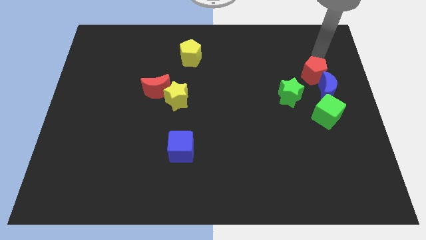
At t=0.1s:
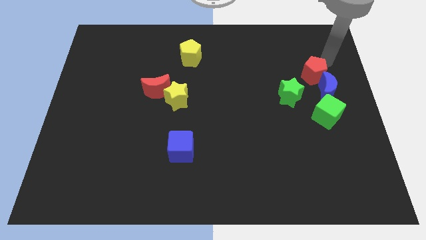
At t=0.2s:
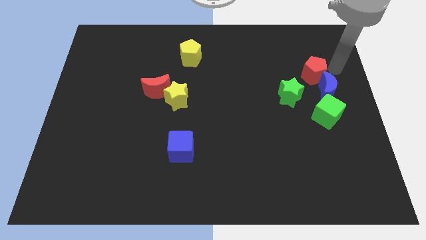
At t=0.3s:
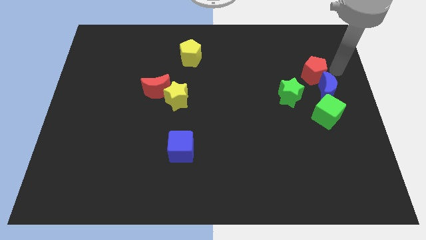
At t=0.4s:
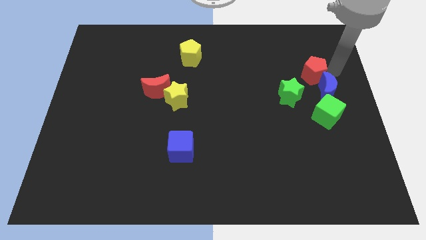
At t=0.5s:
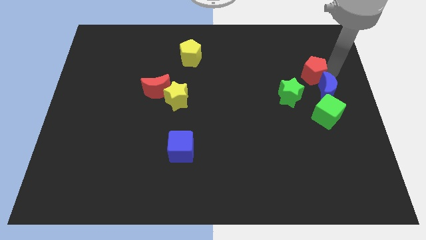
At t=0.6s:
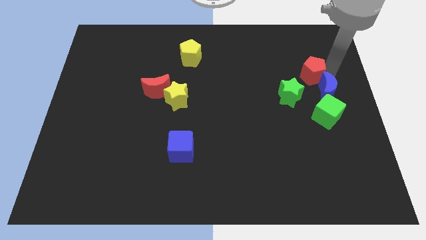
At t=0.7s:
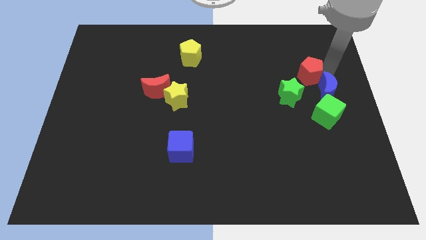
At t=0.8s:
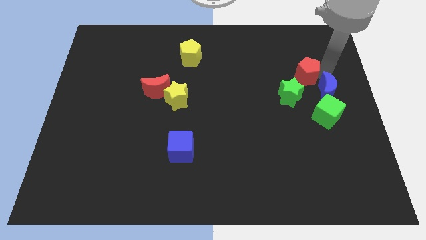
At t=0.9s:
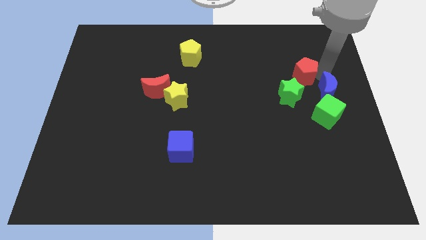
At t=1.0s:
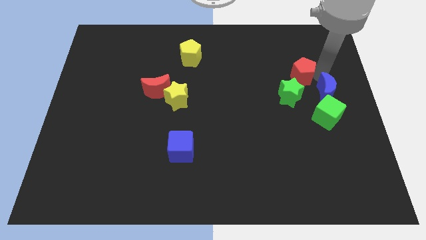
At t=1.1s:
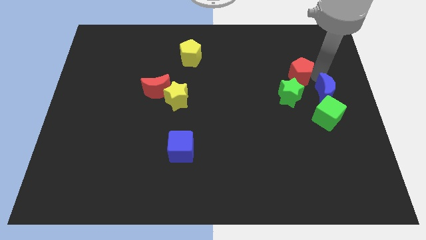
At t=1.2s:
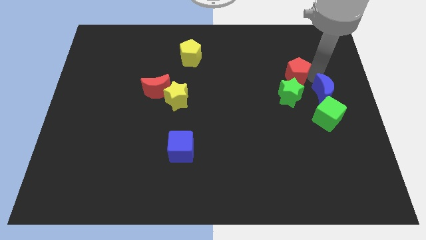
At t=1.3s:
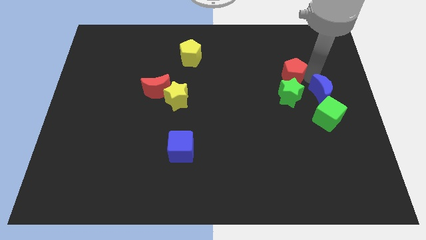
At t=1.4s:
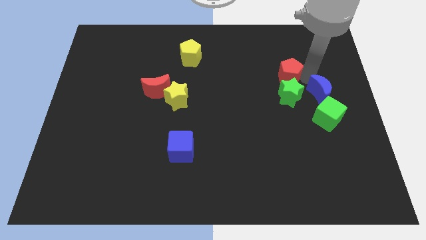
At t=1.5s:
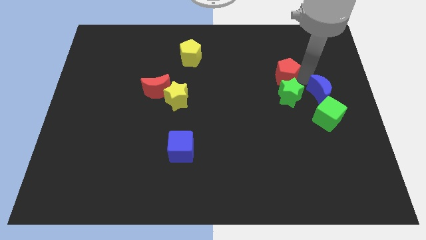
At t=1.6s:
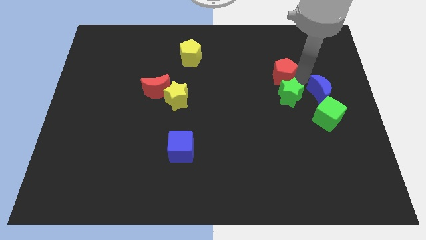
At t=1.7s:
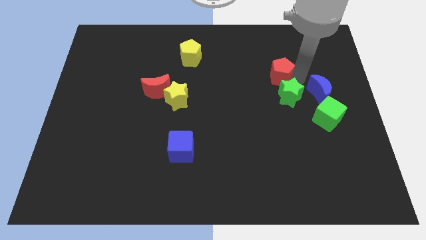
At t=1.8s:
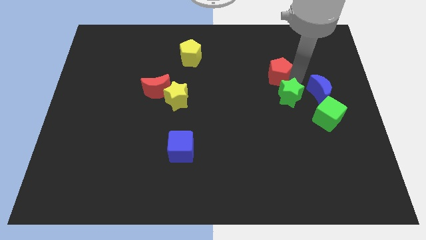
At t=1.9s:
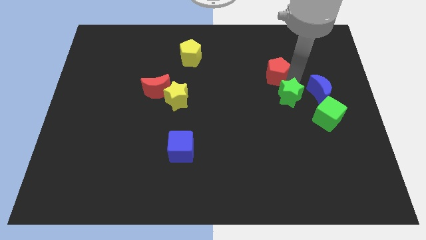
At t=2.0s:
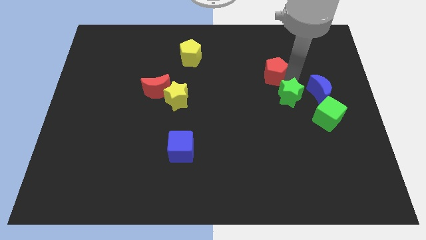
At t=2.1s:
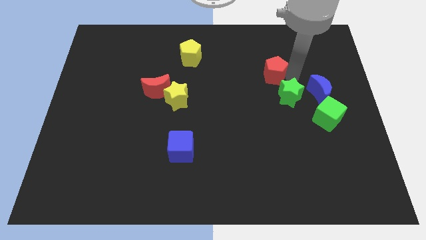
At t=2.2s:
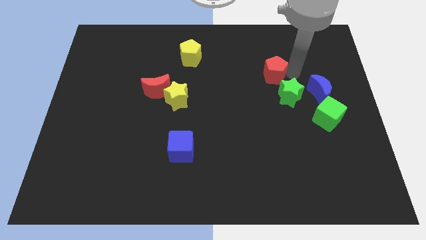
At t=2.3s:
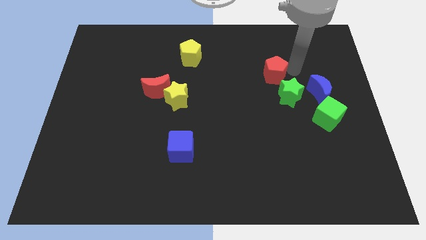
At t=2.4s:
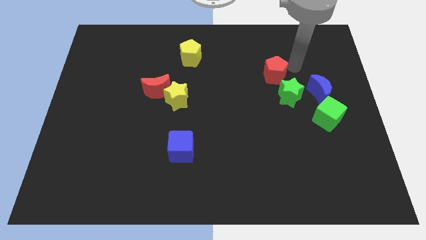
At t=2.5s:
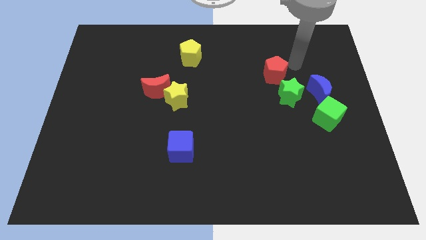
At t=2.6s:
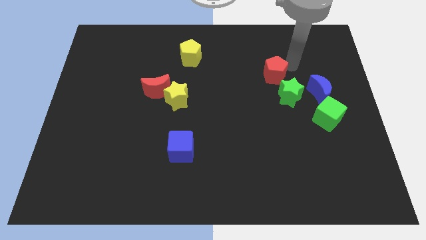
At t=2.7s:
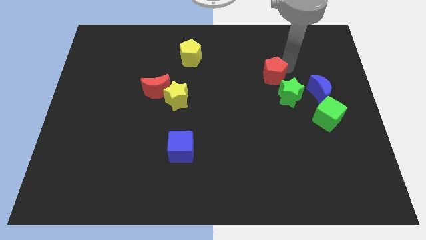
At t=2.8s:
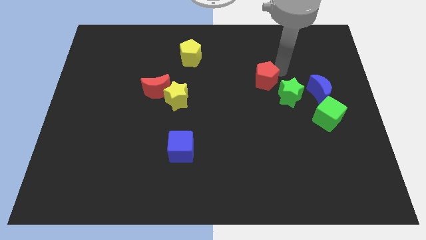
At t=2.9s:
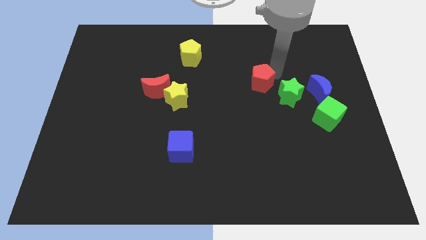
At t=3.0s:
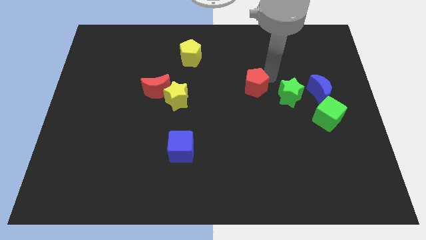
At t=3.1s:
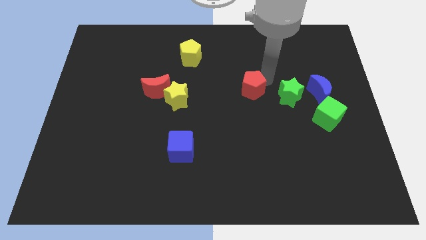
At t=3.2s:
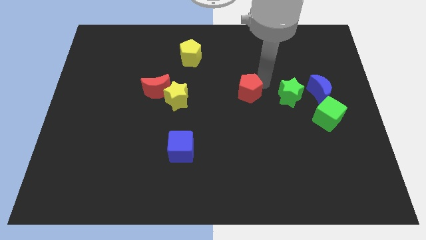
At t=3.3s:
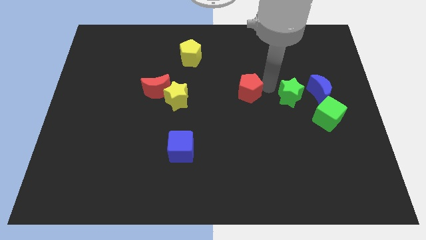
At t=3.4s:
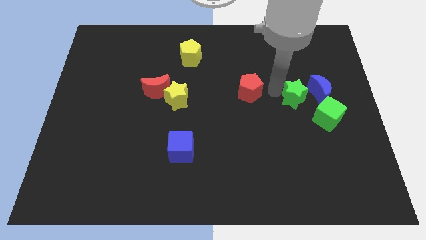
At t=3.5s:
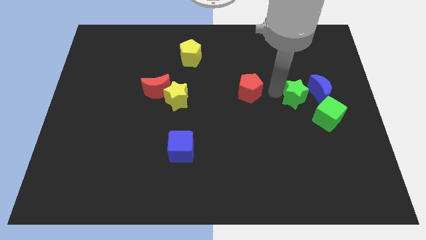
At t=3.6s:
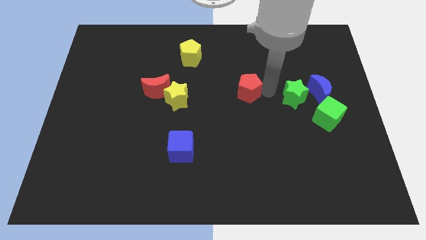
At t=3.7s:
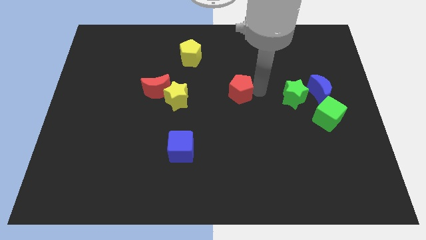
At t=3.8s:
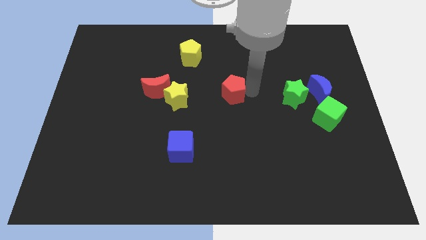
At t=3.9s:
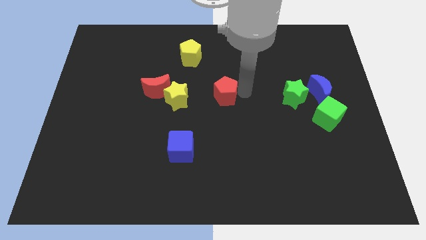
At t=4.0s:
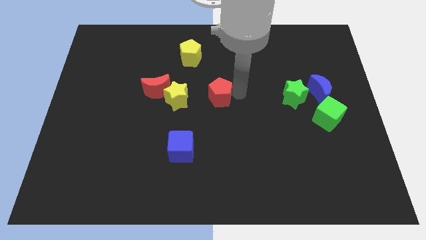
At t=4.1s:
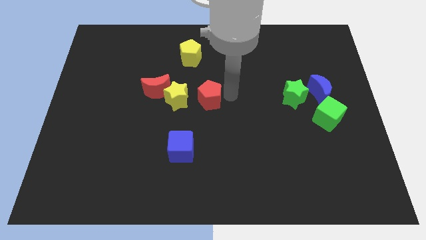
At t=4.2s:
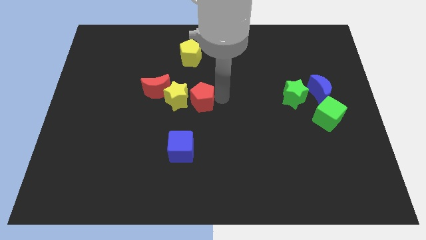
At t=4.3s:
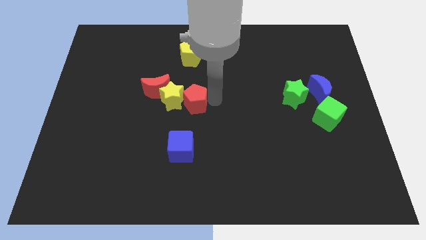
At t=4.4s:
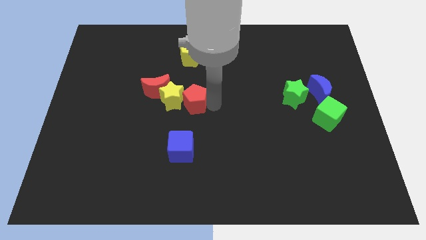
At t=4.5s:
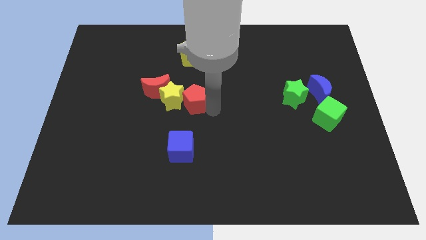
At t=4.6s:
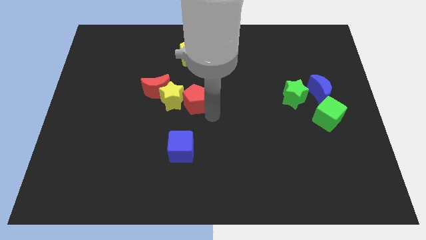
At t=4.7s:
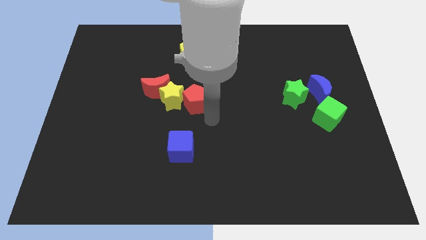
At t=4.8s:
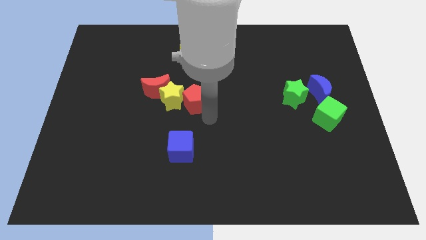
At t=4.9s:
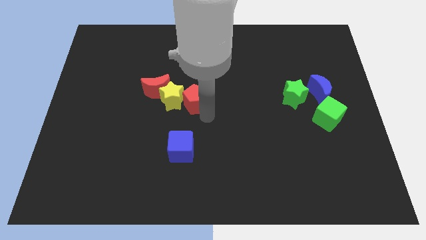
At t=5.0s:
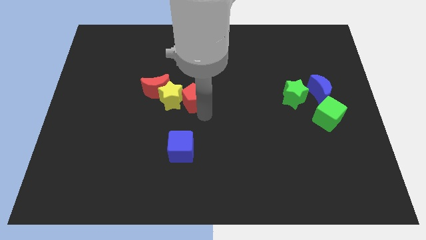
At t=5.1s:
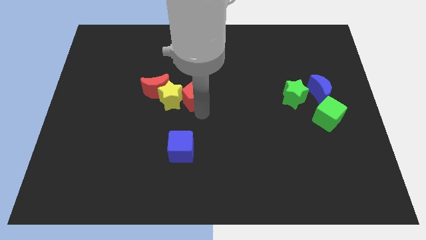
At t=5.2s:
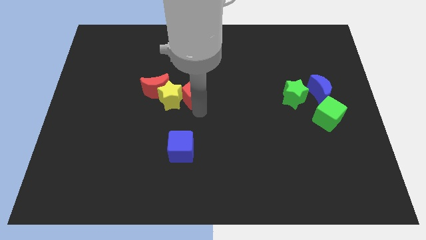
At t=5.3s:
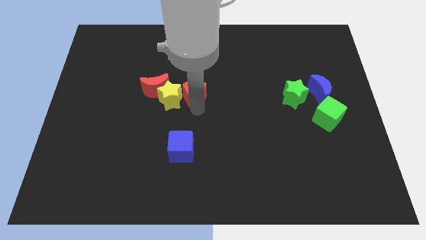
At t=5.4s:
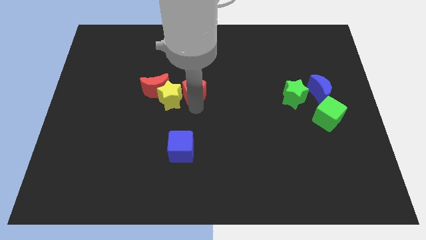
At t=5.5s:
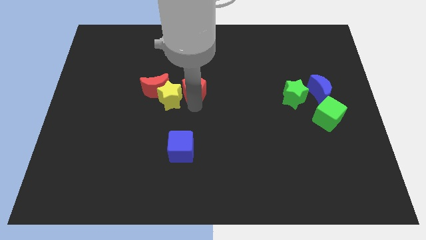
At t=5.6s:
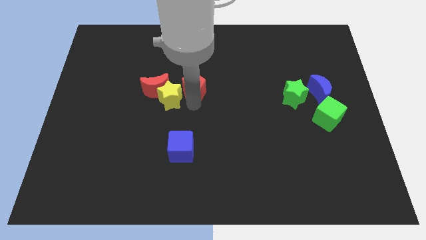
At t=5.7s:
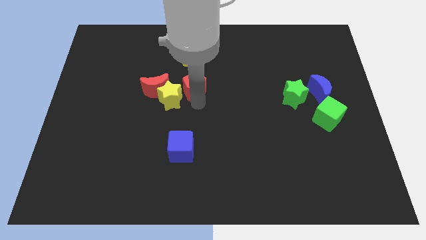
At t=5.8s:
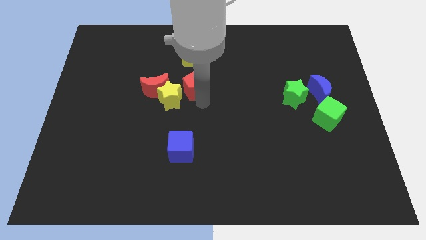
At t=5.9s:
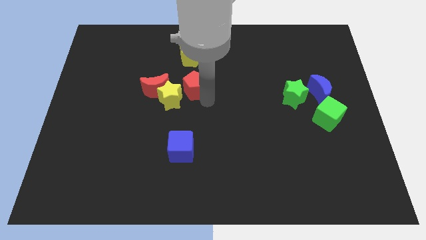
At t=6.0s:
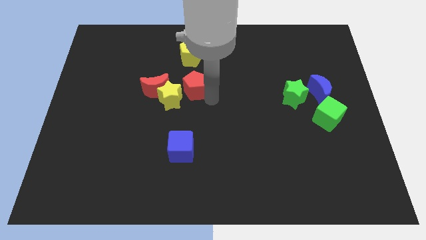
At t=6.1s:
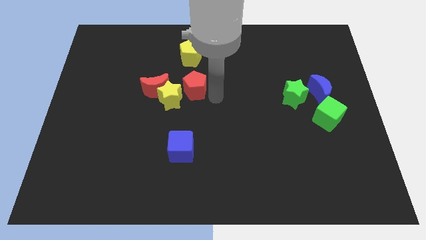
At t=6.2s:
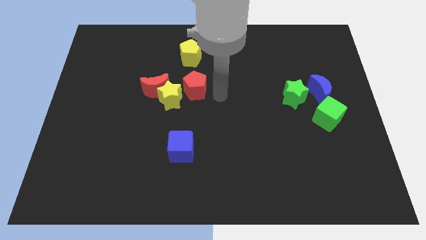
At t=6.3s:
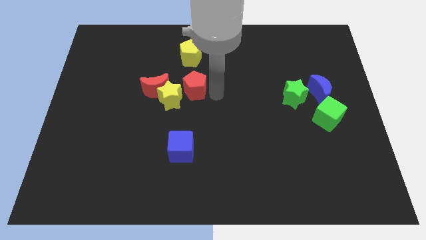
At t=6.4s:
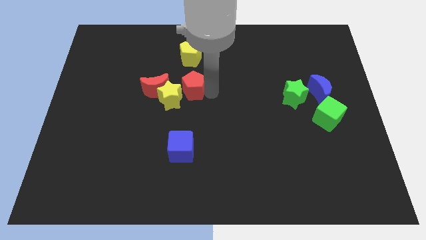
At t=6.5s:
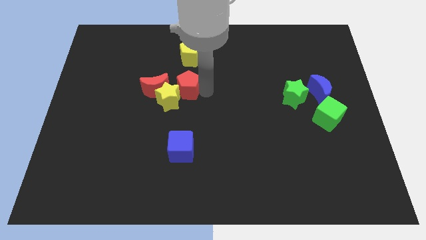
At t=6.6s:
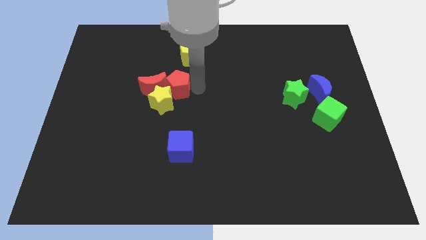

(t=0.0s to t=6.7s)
put the red pentagon towards the red moon

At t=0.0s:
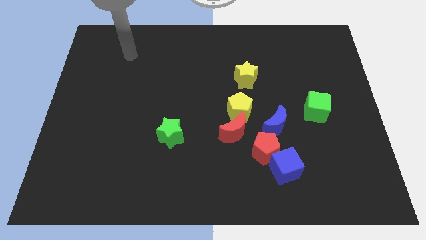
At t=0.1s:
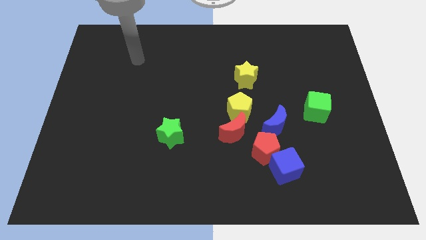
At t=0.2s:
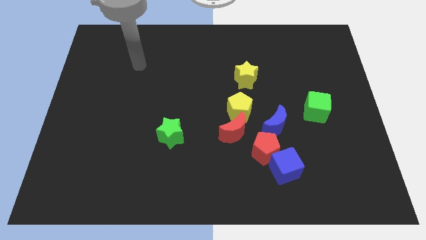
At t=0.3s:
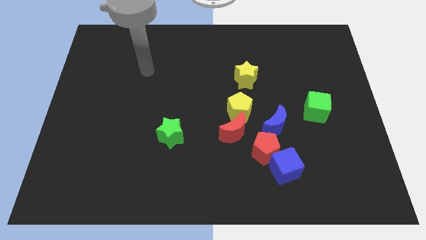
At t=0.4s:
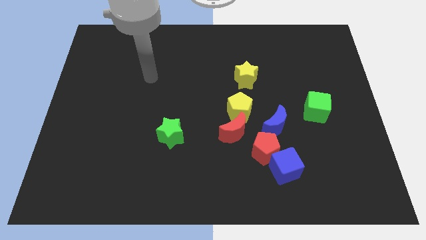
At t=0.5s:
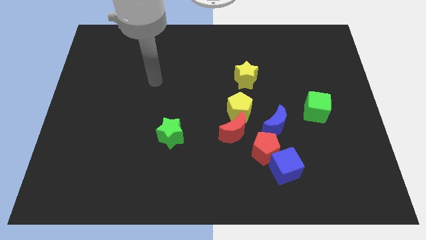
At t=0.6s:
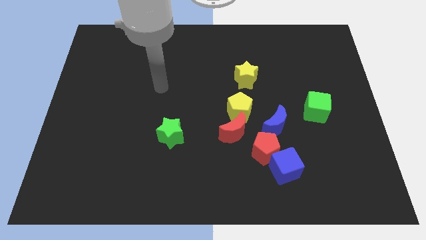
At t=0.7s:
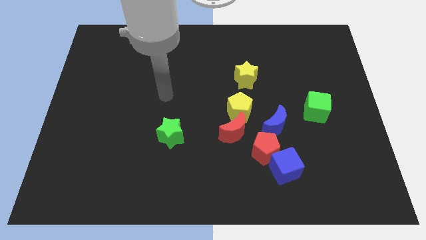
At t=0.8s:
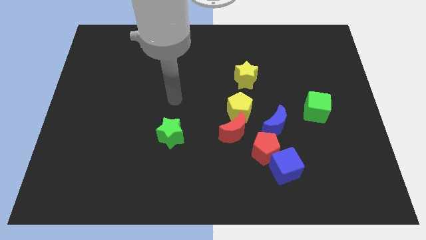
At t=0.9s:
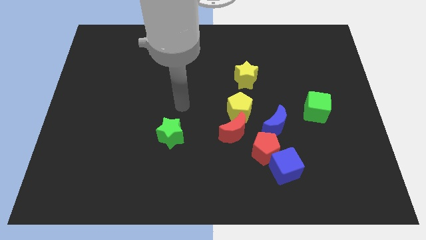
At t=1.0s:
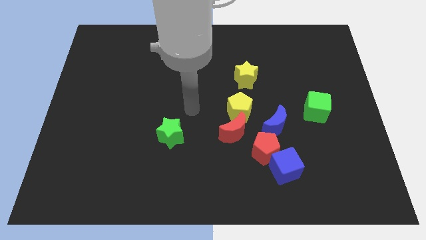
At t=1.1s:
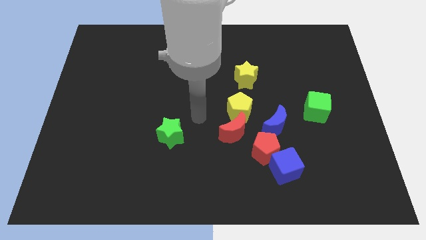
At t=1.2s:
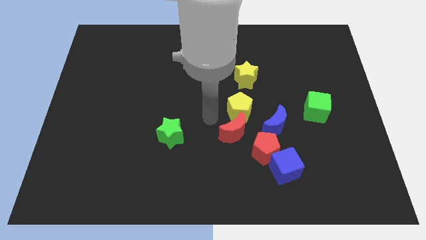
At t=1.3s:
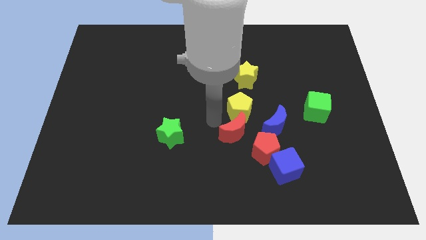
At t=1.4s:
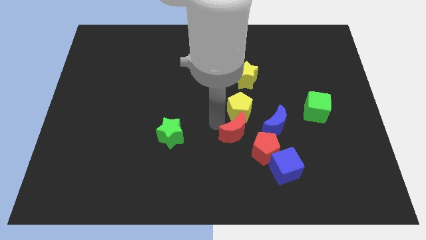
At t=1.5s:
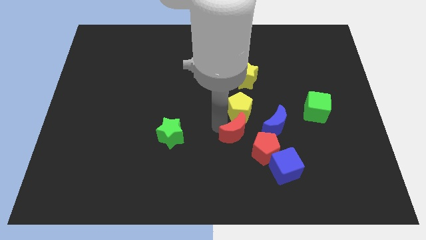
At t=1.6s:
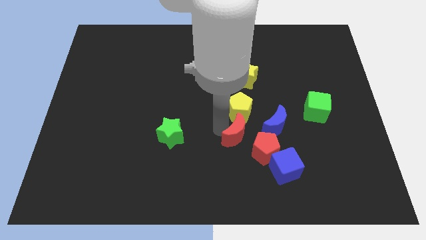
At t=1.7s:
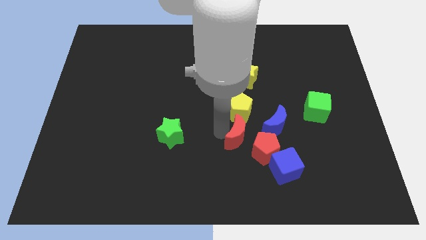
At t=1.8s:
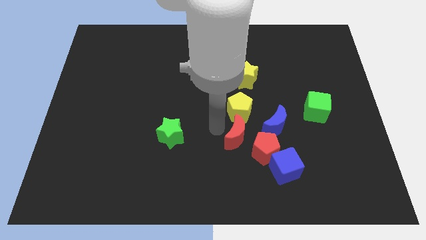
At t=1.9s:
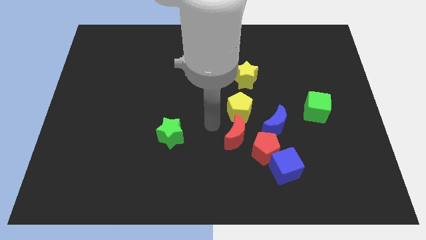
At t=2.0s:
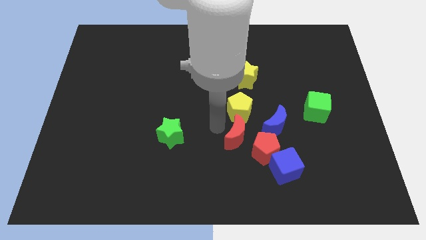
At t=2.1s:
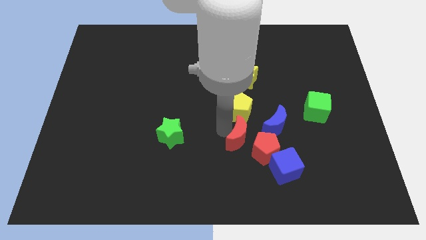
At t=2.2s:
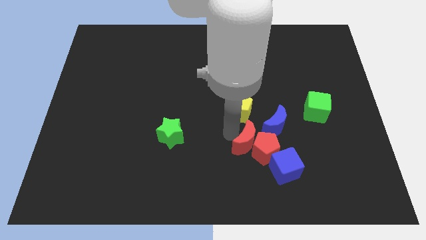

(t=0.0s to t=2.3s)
move the red moon to the red pentagon
